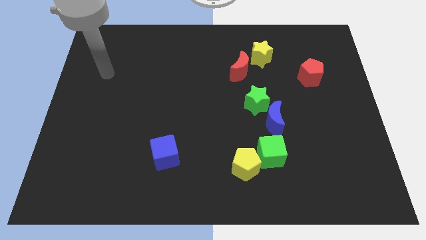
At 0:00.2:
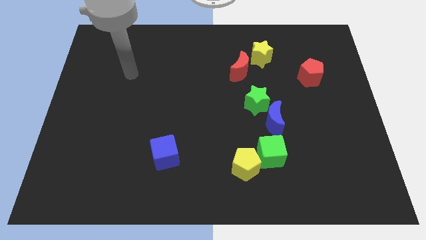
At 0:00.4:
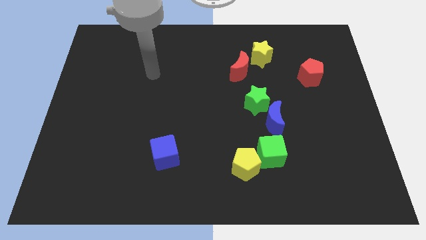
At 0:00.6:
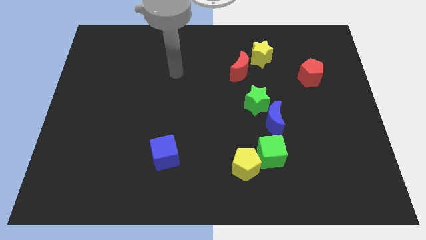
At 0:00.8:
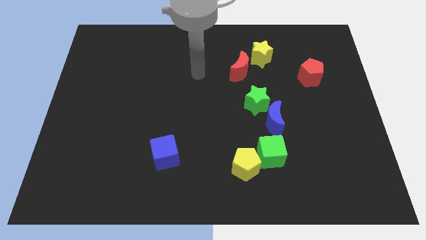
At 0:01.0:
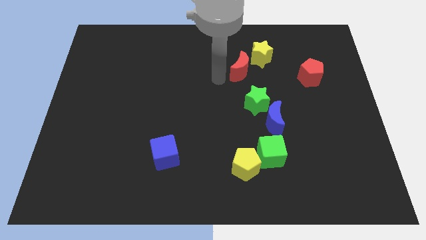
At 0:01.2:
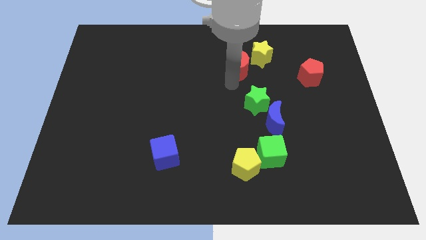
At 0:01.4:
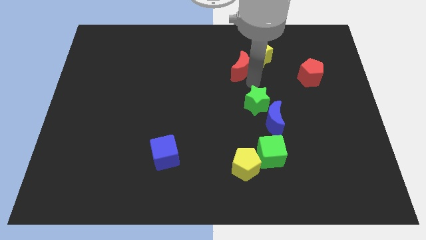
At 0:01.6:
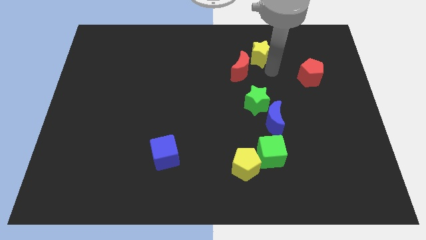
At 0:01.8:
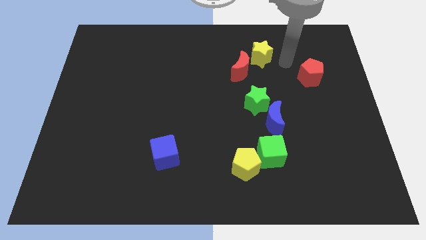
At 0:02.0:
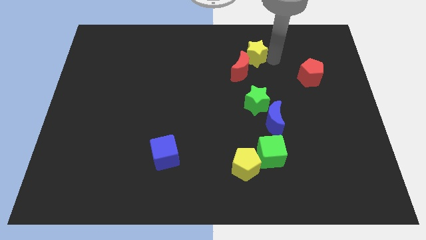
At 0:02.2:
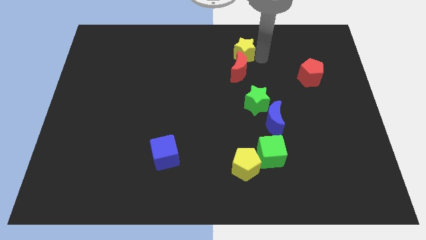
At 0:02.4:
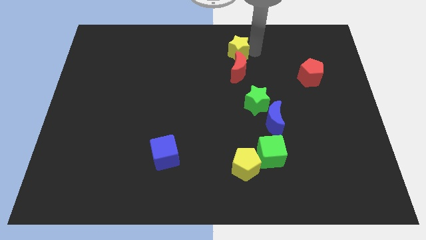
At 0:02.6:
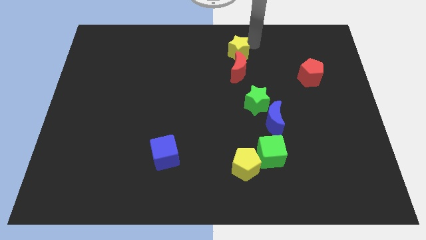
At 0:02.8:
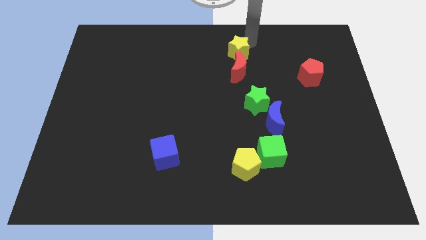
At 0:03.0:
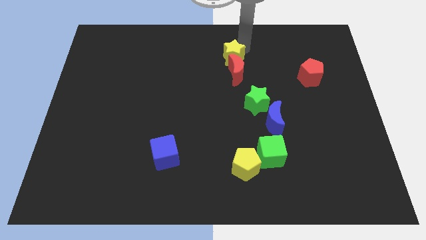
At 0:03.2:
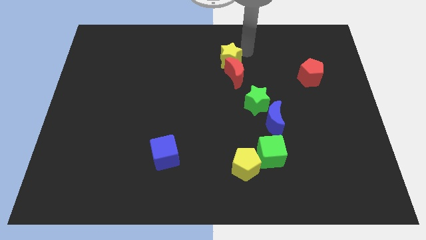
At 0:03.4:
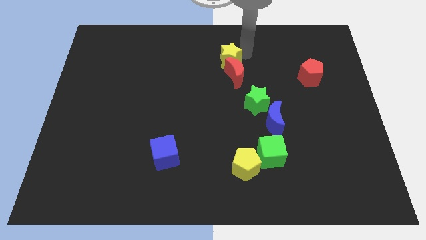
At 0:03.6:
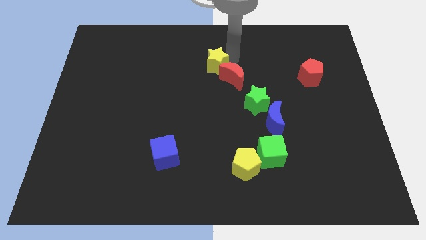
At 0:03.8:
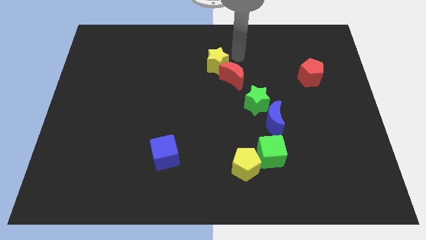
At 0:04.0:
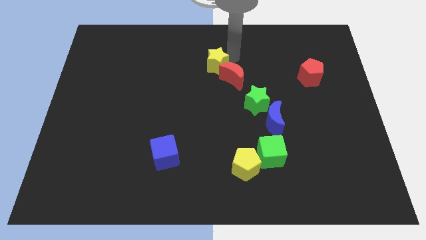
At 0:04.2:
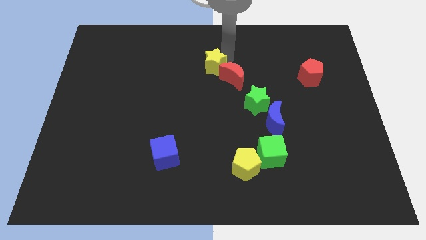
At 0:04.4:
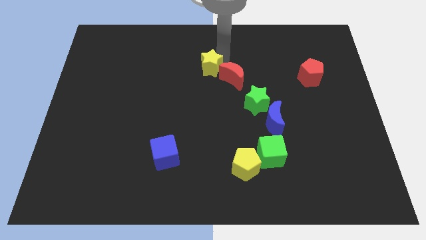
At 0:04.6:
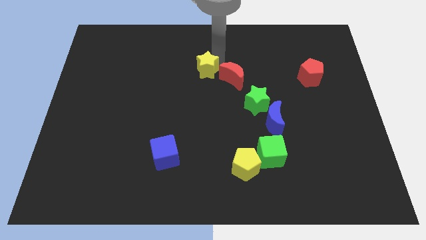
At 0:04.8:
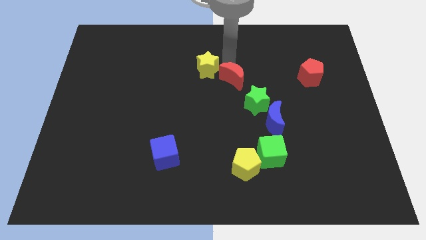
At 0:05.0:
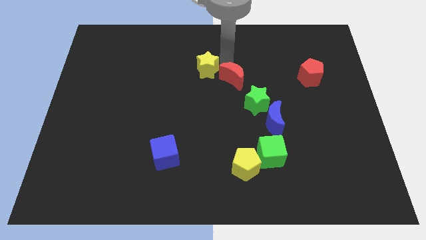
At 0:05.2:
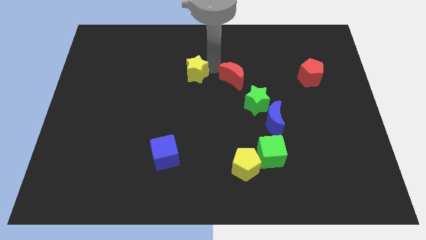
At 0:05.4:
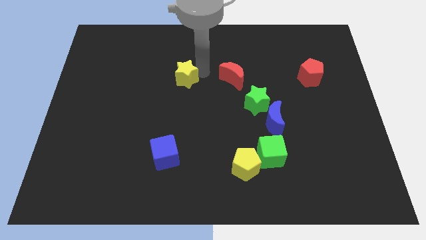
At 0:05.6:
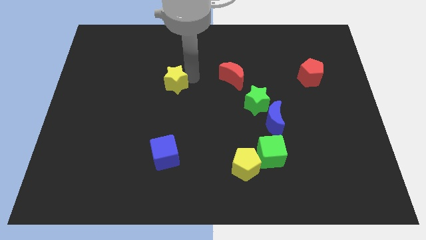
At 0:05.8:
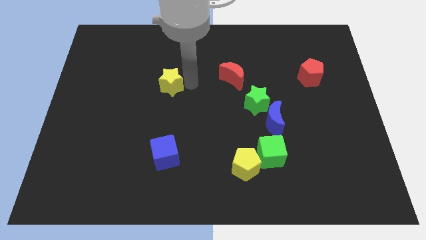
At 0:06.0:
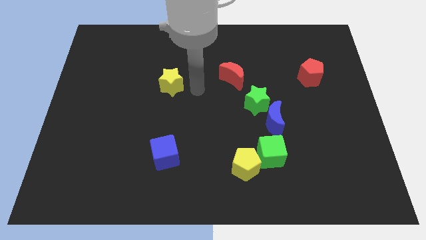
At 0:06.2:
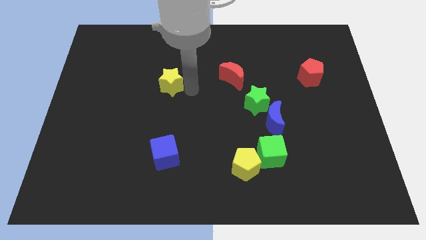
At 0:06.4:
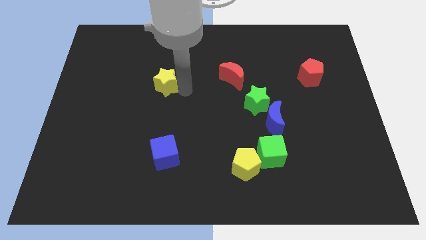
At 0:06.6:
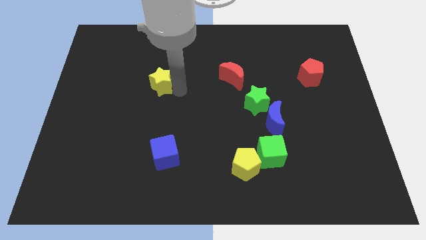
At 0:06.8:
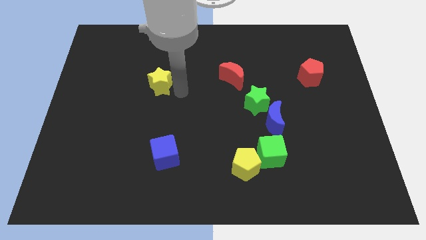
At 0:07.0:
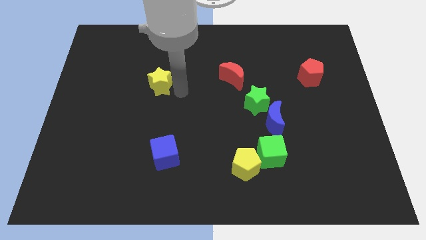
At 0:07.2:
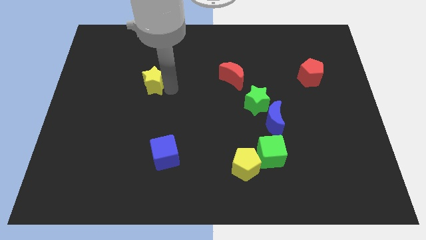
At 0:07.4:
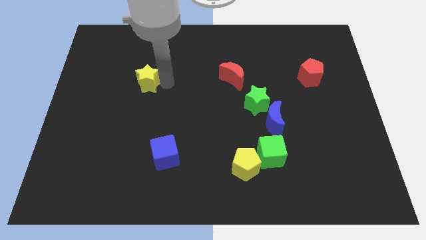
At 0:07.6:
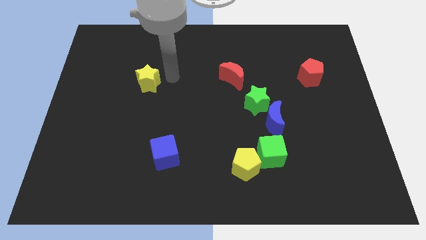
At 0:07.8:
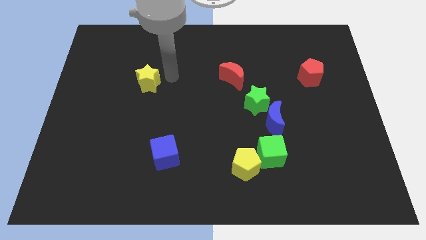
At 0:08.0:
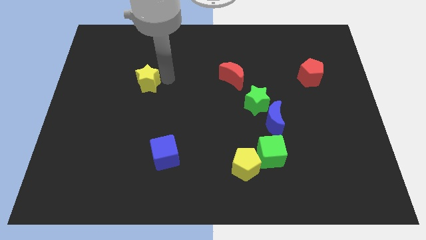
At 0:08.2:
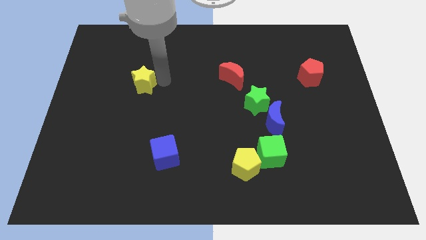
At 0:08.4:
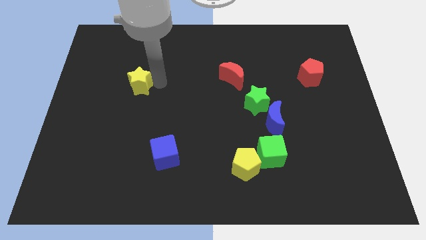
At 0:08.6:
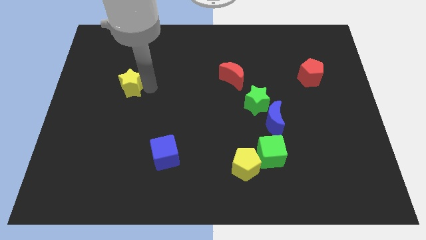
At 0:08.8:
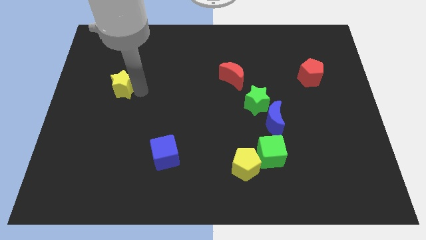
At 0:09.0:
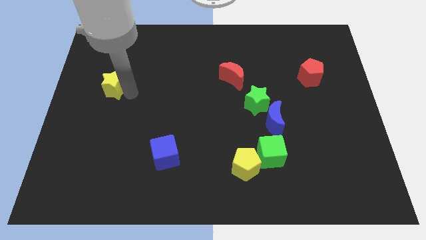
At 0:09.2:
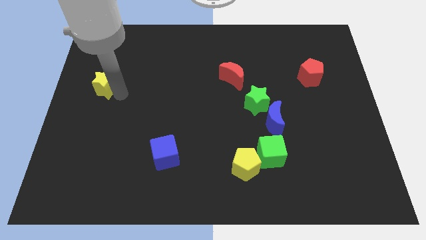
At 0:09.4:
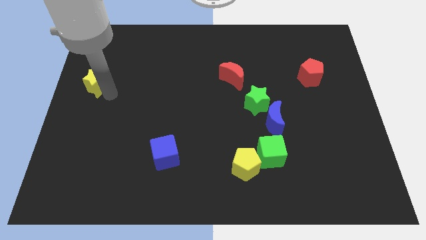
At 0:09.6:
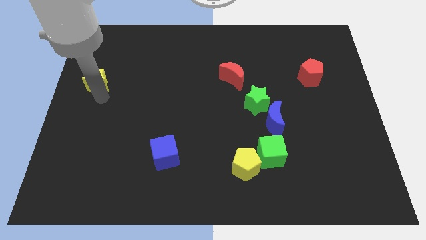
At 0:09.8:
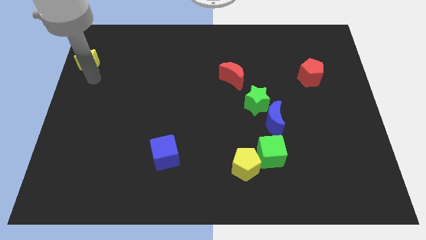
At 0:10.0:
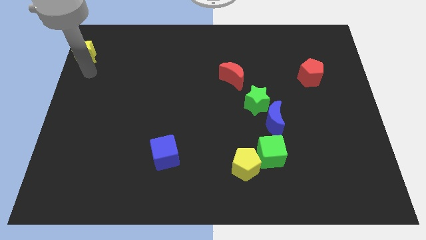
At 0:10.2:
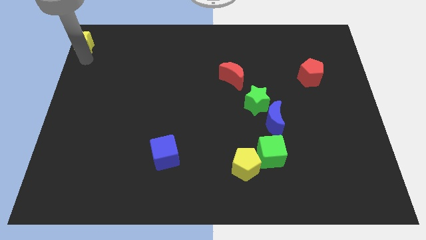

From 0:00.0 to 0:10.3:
push the yellow star to the upper left corner

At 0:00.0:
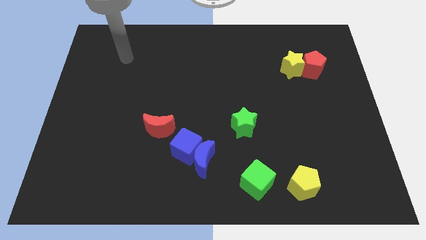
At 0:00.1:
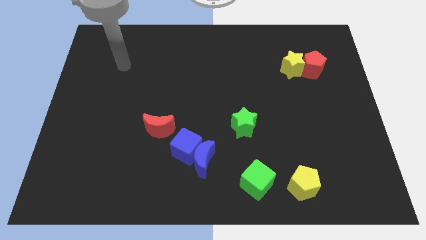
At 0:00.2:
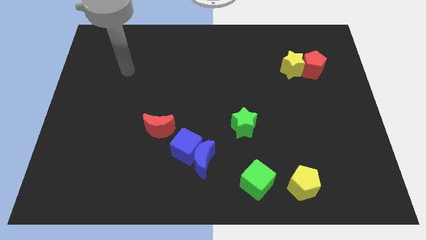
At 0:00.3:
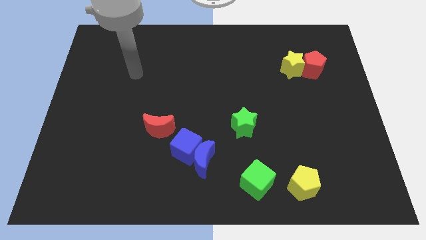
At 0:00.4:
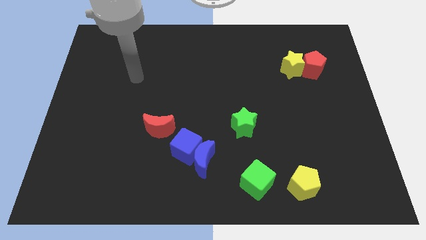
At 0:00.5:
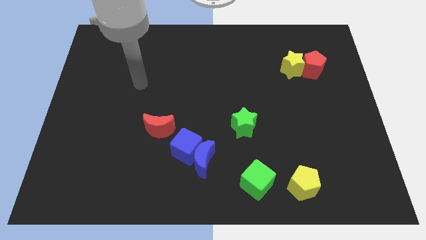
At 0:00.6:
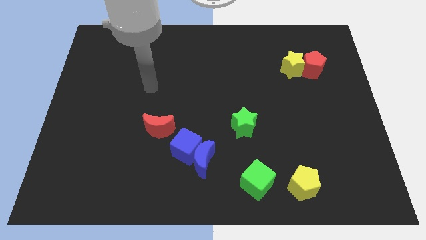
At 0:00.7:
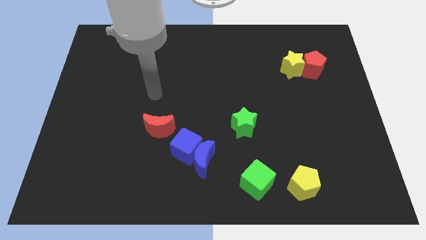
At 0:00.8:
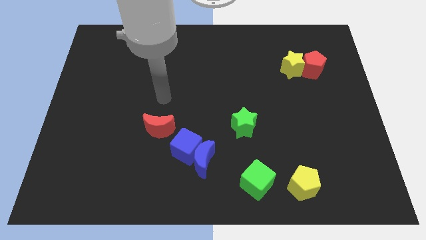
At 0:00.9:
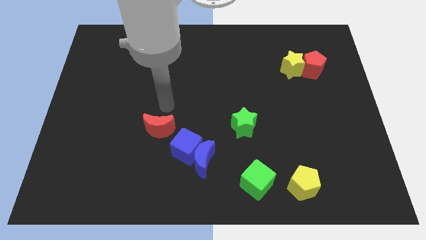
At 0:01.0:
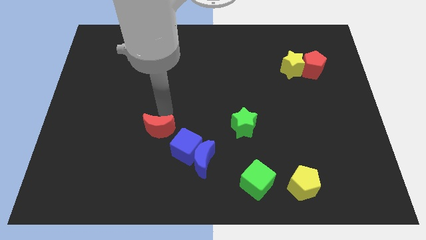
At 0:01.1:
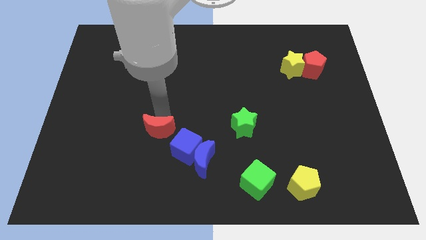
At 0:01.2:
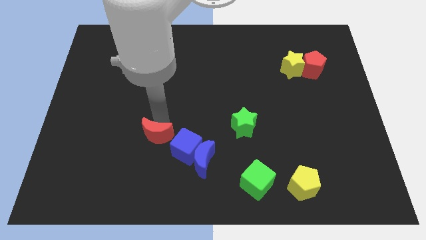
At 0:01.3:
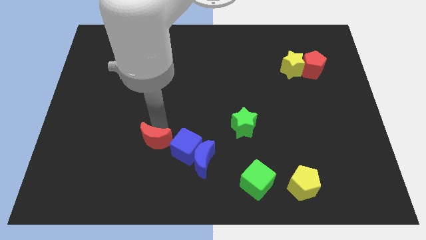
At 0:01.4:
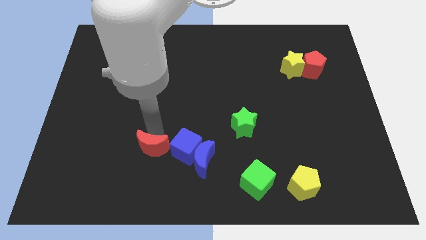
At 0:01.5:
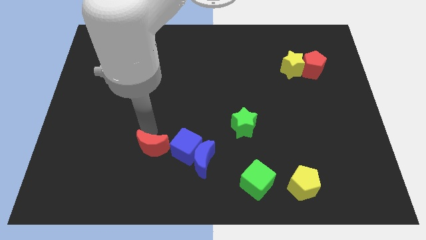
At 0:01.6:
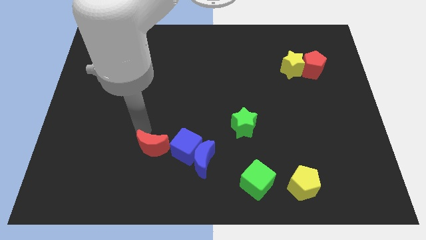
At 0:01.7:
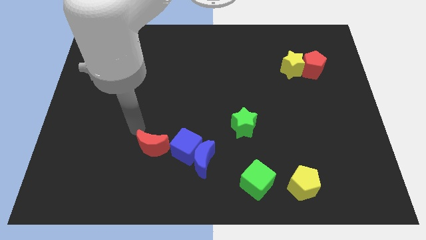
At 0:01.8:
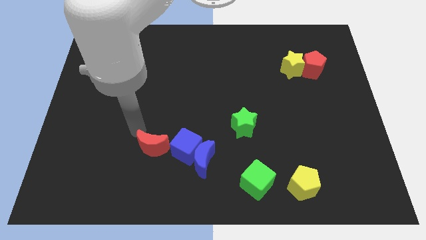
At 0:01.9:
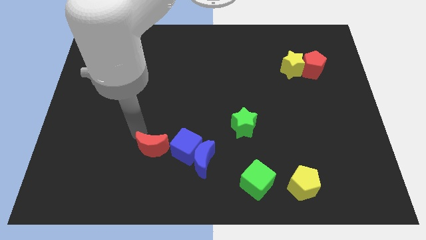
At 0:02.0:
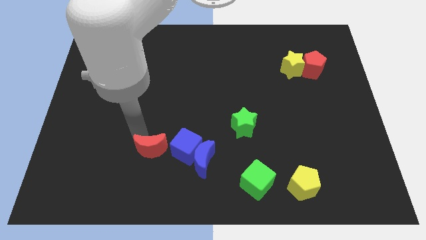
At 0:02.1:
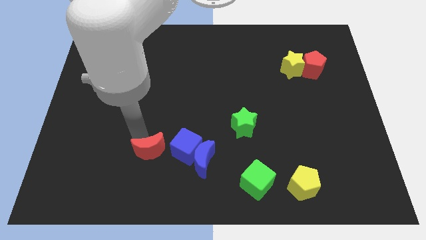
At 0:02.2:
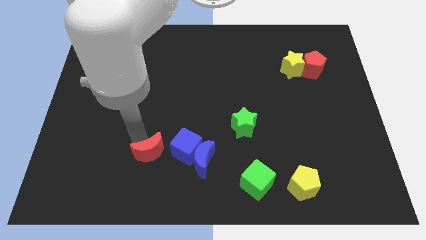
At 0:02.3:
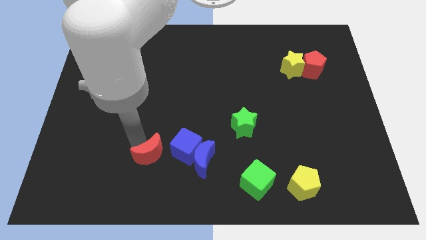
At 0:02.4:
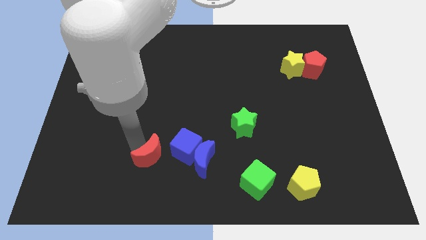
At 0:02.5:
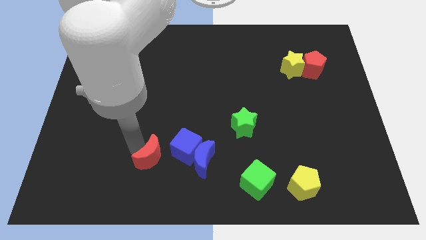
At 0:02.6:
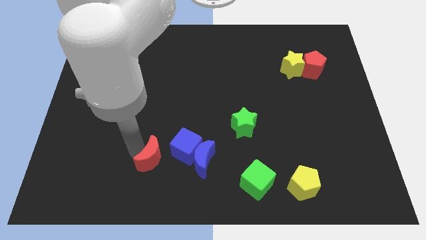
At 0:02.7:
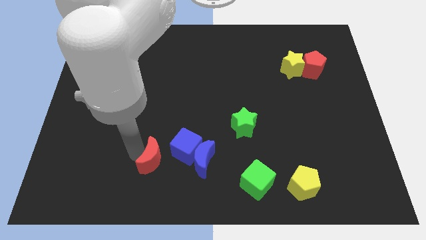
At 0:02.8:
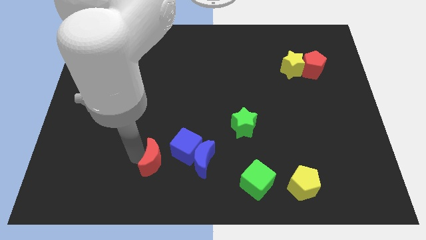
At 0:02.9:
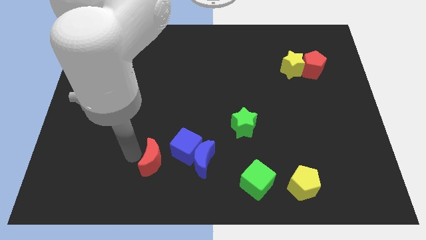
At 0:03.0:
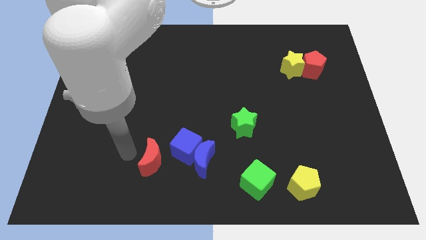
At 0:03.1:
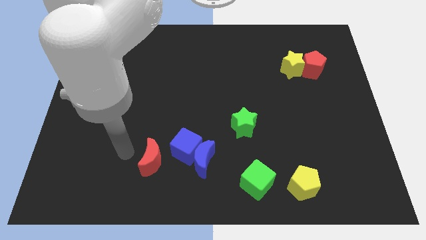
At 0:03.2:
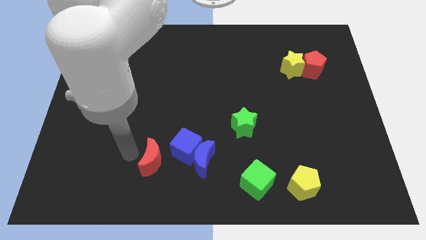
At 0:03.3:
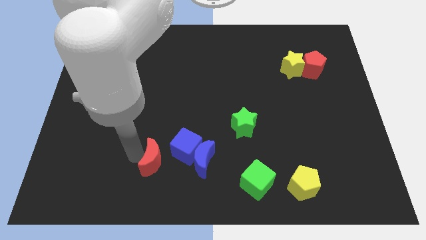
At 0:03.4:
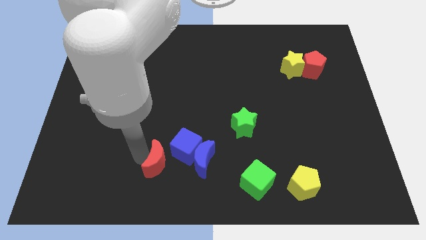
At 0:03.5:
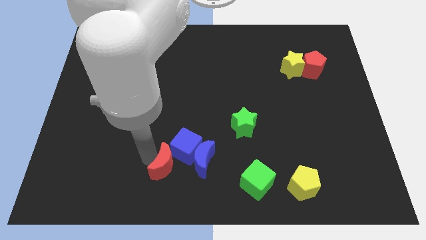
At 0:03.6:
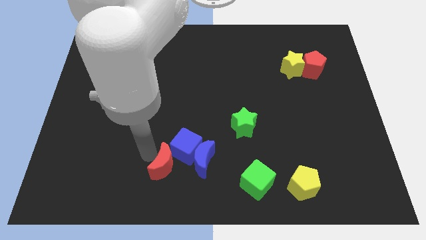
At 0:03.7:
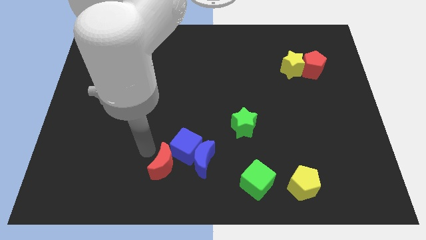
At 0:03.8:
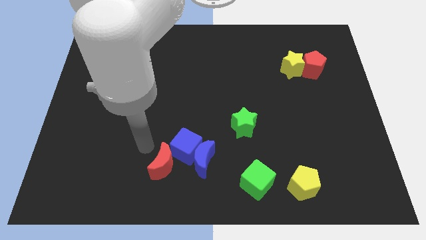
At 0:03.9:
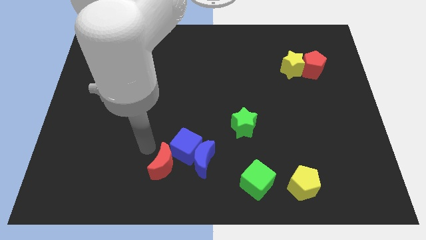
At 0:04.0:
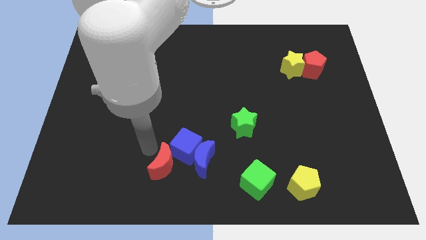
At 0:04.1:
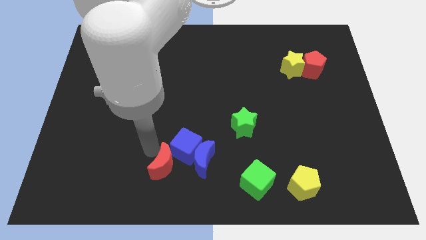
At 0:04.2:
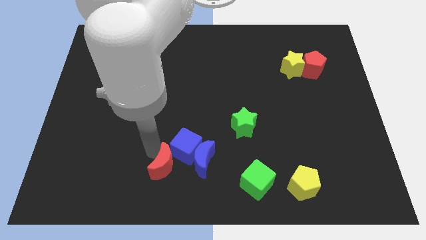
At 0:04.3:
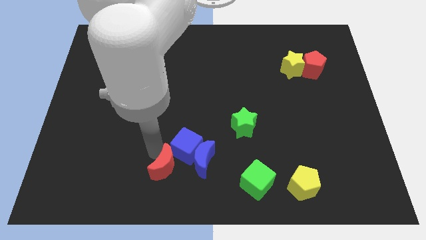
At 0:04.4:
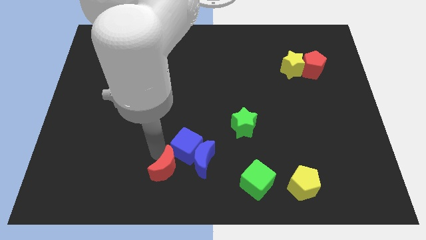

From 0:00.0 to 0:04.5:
put the red moon to the bottom
